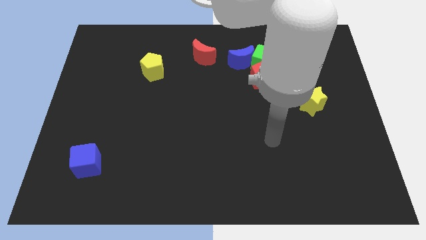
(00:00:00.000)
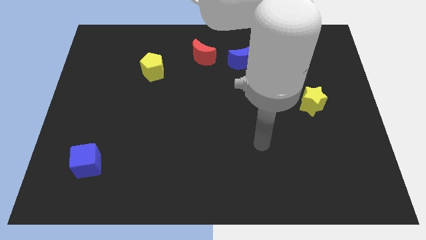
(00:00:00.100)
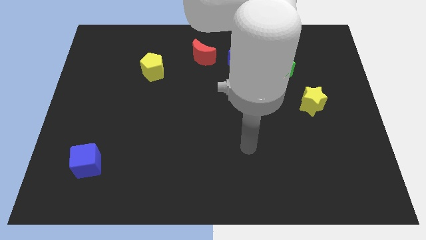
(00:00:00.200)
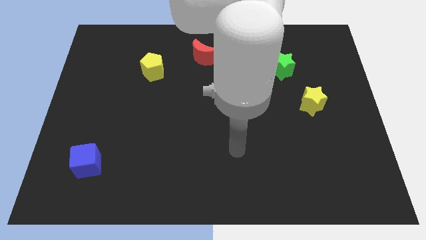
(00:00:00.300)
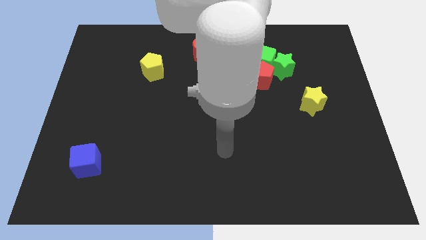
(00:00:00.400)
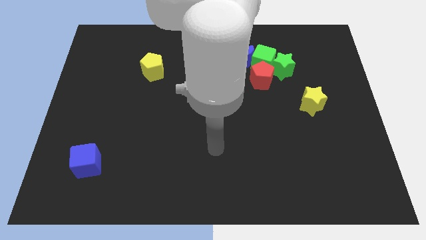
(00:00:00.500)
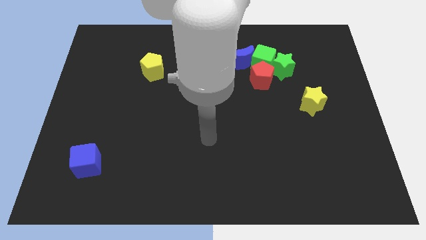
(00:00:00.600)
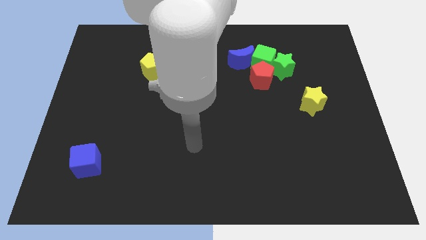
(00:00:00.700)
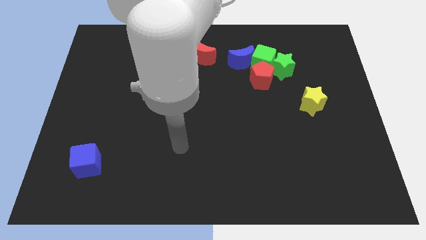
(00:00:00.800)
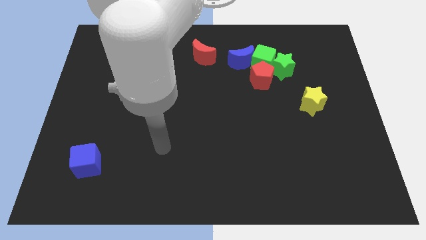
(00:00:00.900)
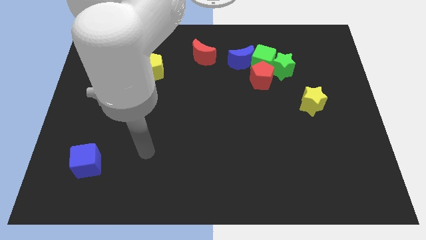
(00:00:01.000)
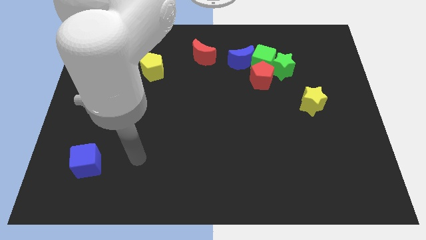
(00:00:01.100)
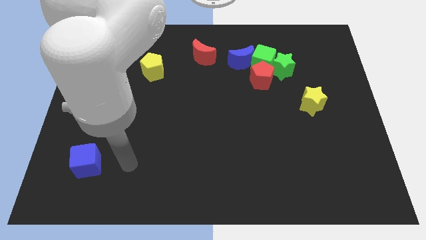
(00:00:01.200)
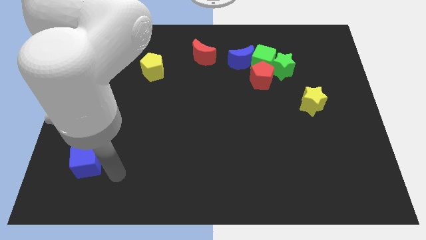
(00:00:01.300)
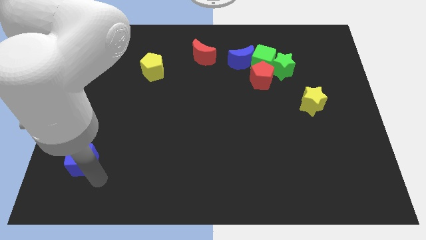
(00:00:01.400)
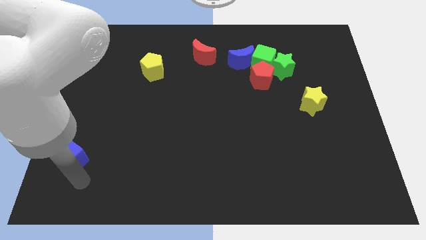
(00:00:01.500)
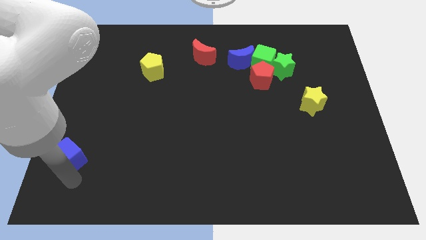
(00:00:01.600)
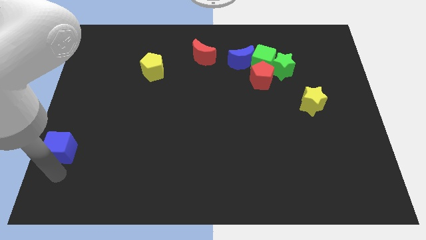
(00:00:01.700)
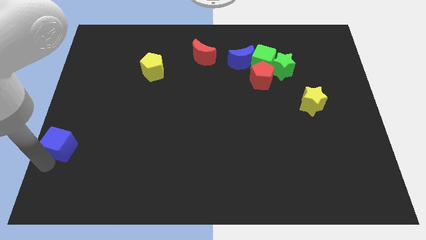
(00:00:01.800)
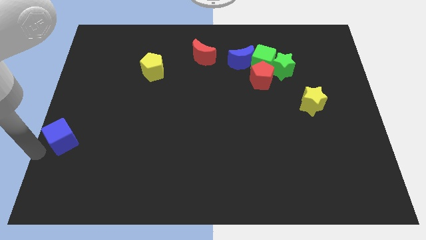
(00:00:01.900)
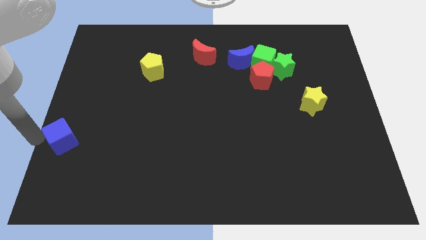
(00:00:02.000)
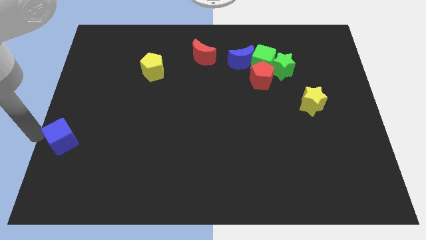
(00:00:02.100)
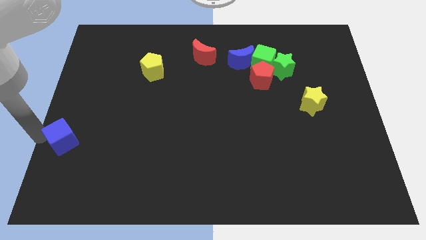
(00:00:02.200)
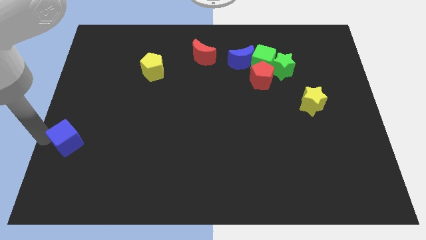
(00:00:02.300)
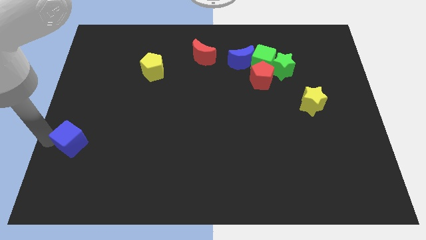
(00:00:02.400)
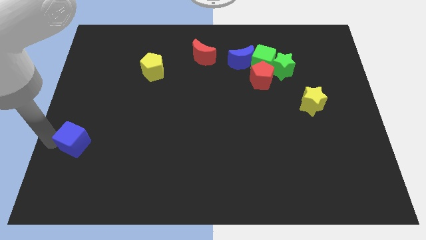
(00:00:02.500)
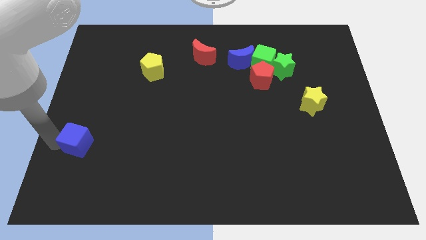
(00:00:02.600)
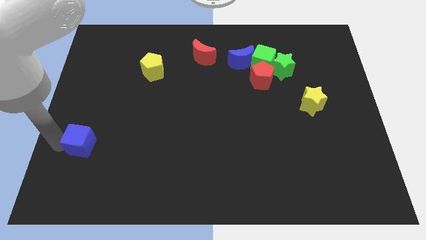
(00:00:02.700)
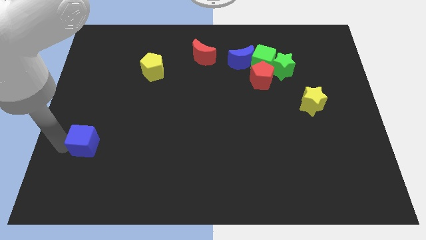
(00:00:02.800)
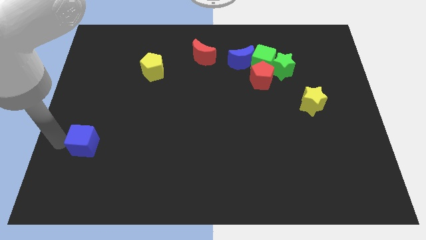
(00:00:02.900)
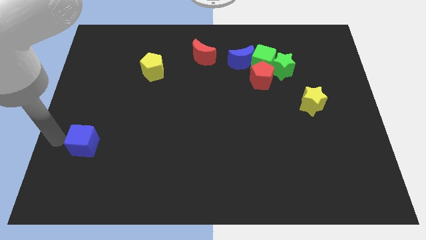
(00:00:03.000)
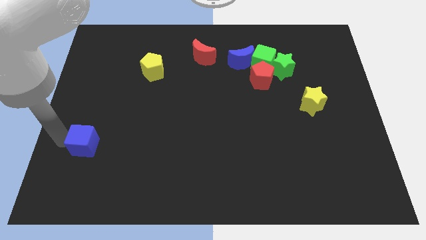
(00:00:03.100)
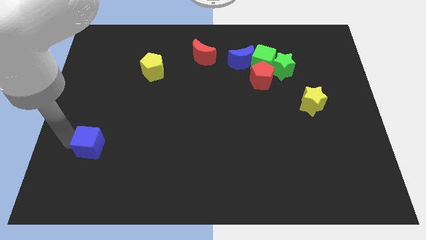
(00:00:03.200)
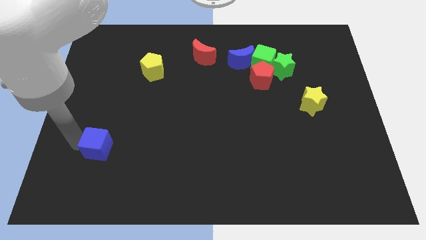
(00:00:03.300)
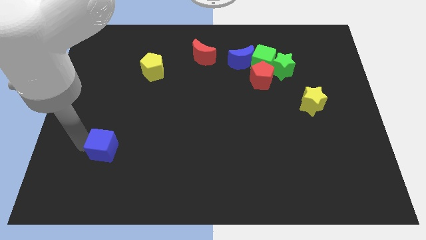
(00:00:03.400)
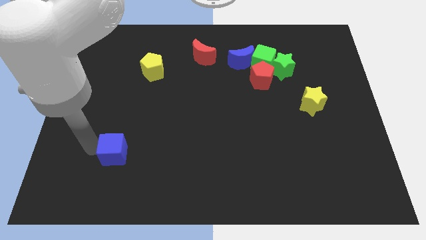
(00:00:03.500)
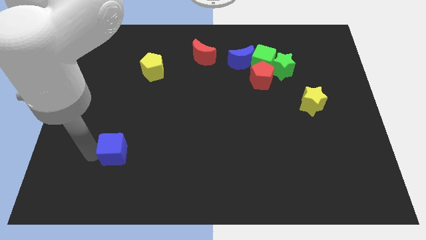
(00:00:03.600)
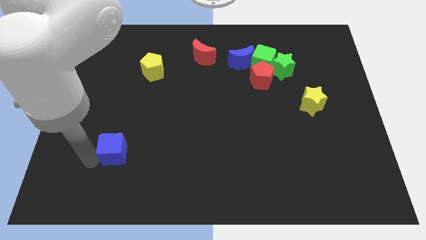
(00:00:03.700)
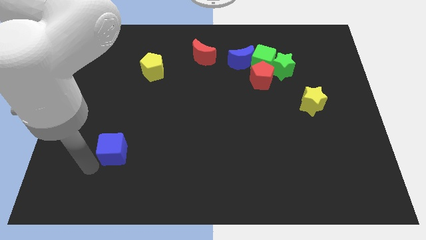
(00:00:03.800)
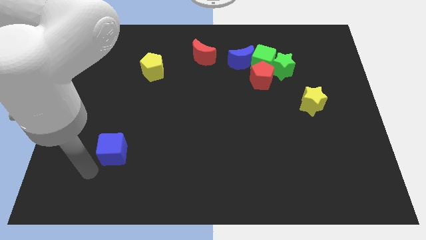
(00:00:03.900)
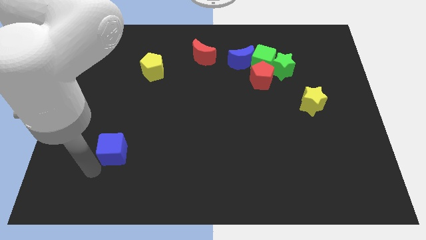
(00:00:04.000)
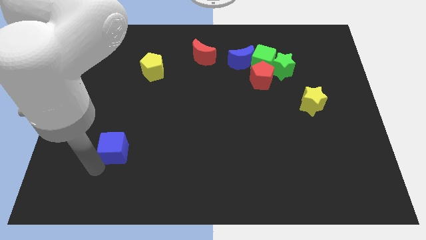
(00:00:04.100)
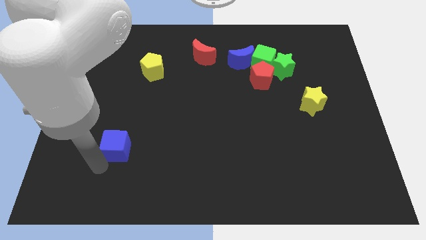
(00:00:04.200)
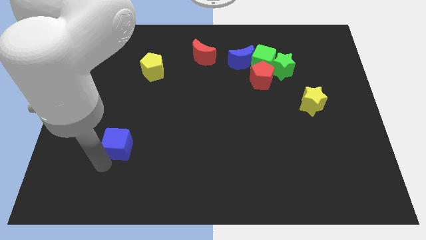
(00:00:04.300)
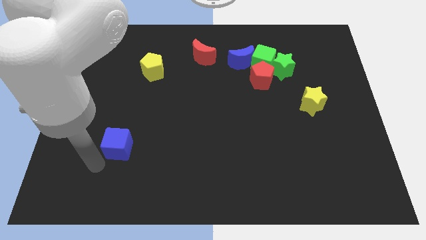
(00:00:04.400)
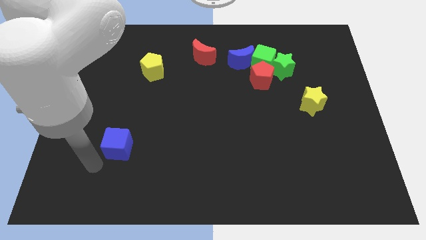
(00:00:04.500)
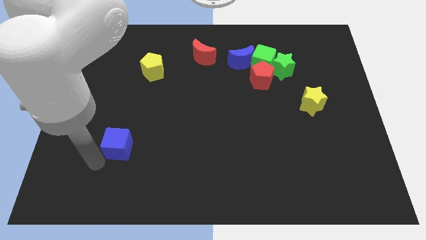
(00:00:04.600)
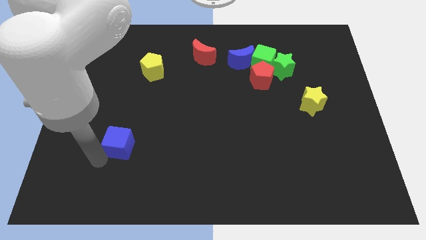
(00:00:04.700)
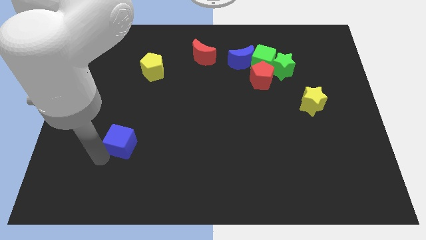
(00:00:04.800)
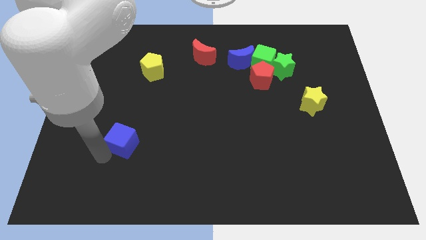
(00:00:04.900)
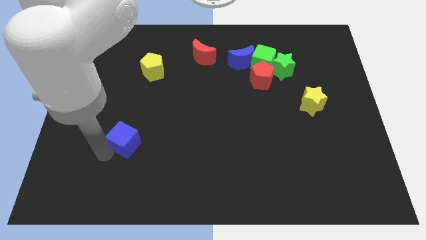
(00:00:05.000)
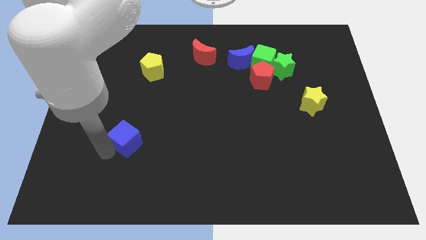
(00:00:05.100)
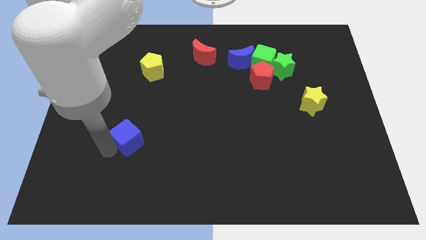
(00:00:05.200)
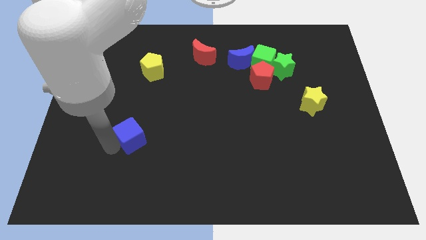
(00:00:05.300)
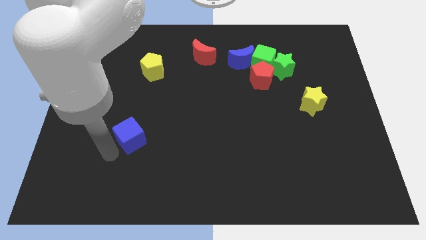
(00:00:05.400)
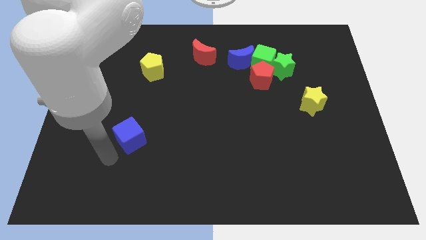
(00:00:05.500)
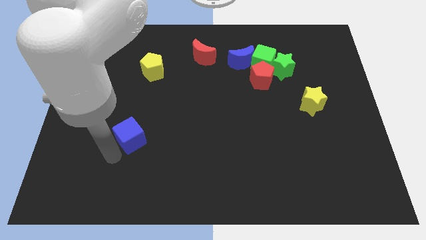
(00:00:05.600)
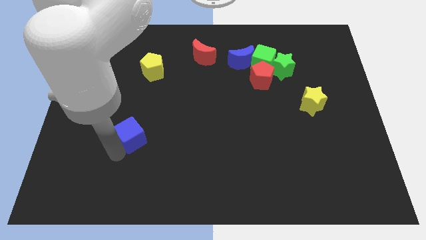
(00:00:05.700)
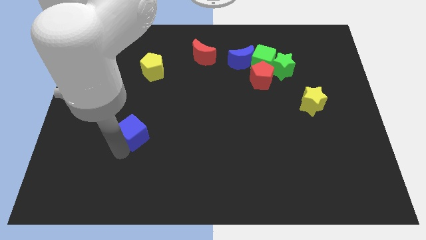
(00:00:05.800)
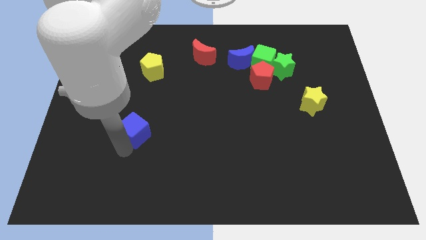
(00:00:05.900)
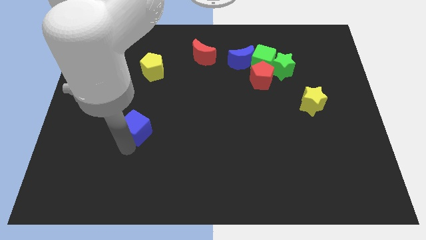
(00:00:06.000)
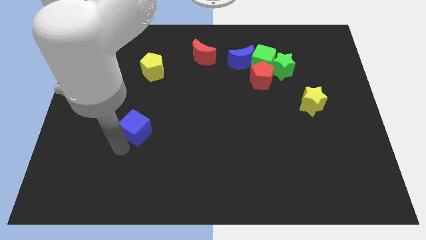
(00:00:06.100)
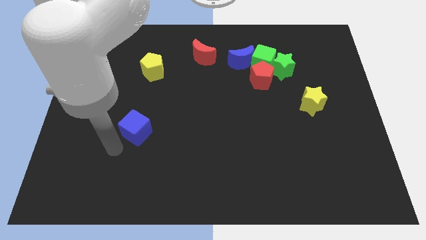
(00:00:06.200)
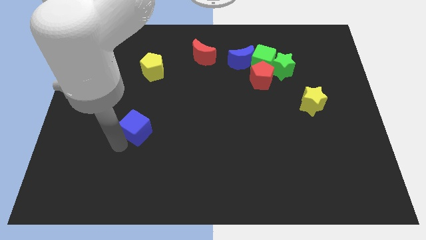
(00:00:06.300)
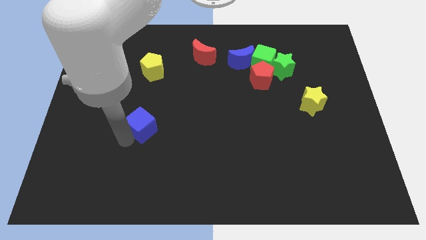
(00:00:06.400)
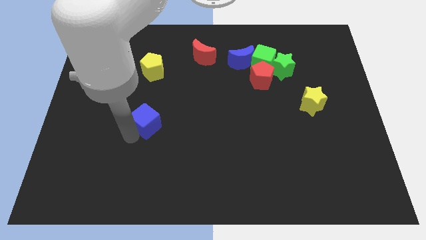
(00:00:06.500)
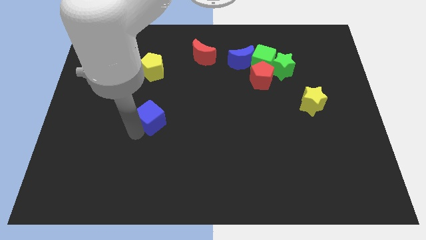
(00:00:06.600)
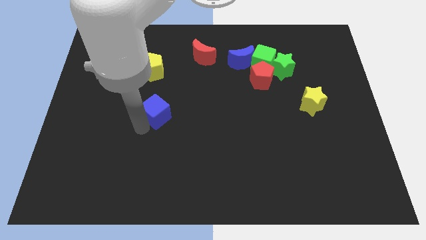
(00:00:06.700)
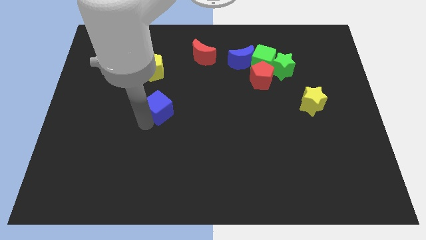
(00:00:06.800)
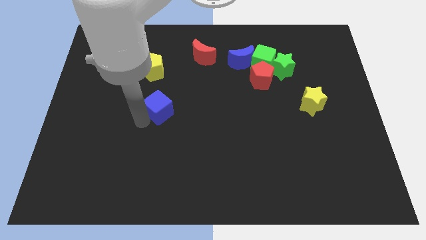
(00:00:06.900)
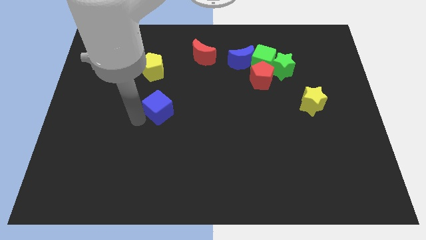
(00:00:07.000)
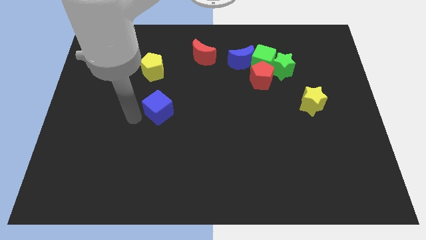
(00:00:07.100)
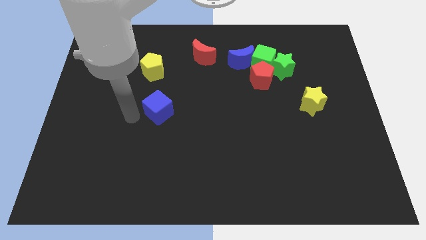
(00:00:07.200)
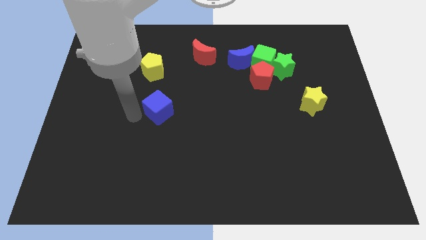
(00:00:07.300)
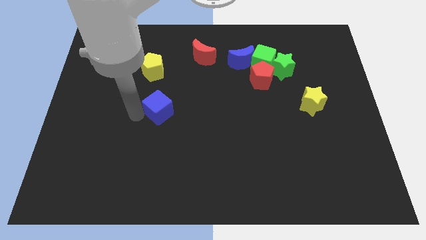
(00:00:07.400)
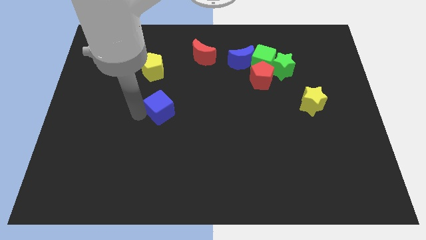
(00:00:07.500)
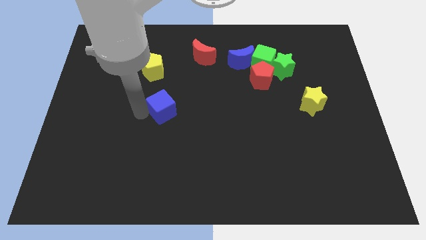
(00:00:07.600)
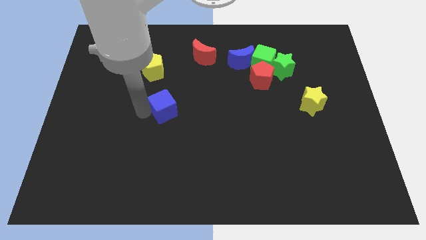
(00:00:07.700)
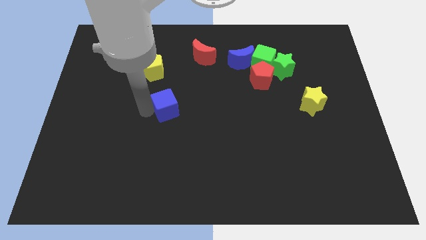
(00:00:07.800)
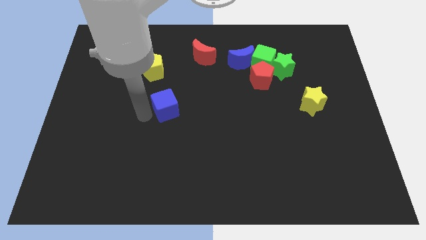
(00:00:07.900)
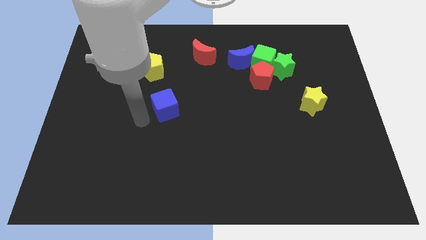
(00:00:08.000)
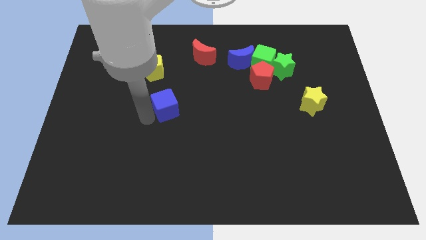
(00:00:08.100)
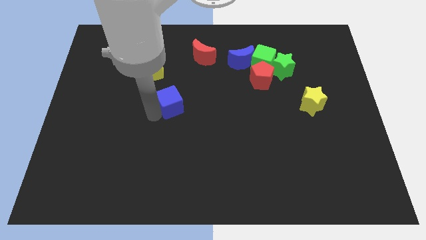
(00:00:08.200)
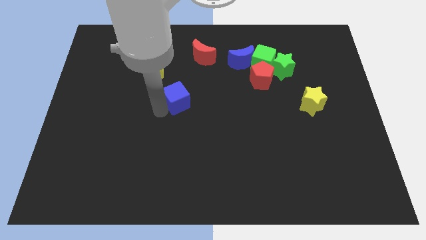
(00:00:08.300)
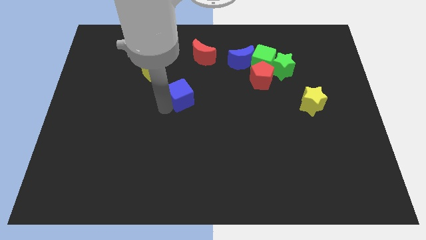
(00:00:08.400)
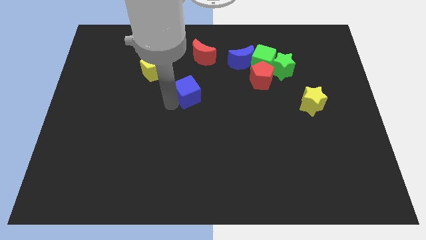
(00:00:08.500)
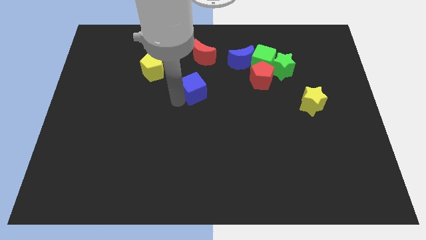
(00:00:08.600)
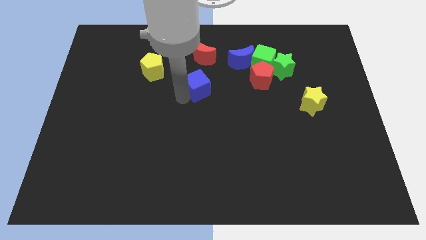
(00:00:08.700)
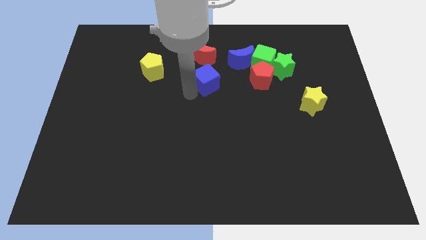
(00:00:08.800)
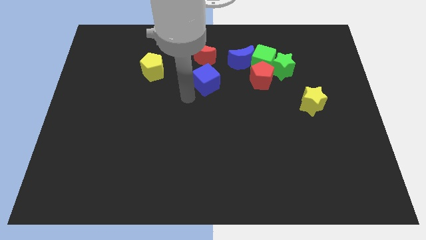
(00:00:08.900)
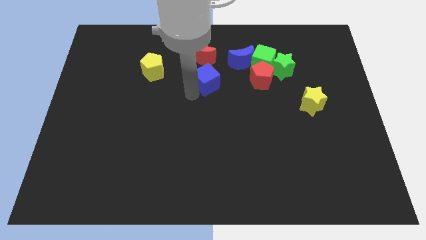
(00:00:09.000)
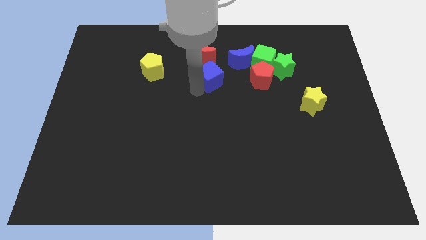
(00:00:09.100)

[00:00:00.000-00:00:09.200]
push the blue cube to the bottom right side of the red moon
